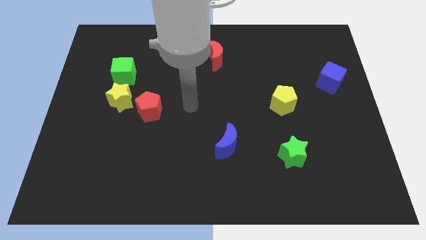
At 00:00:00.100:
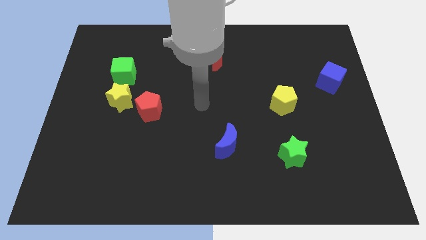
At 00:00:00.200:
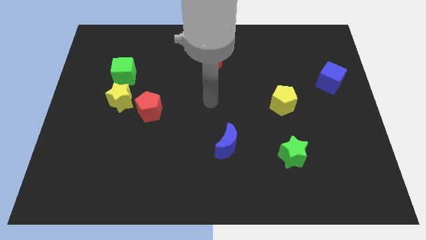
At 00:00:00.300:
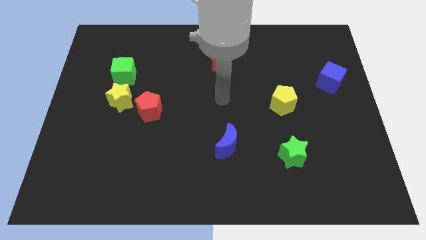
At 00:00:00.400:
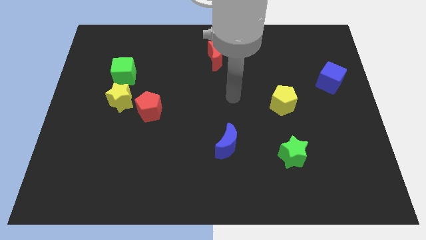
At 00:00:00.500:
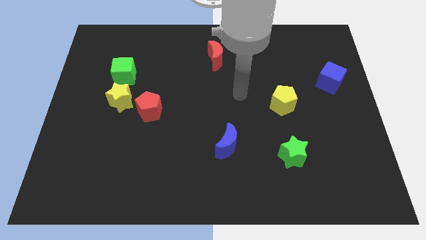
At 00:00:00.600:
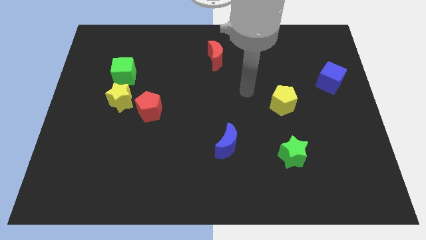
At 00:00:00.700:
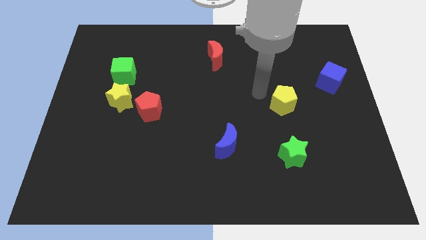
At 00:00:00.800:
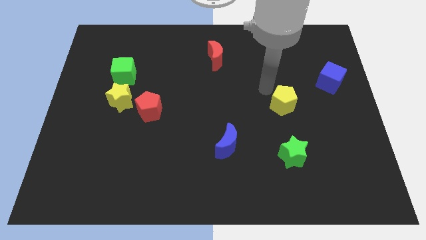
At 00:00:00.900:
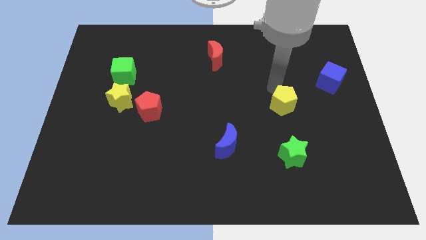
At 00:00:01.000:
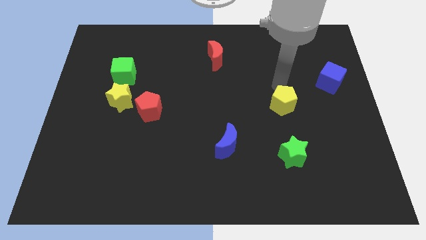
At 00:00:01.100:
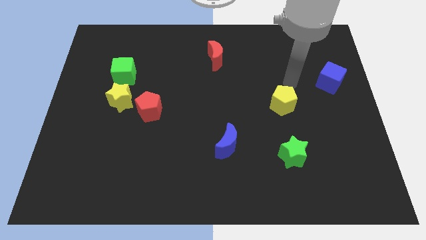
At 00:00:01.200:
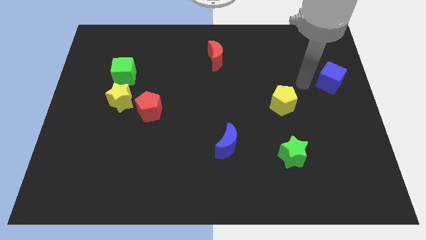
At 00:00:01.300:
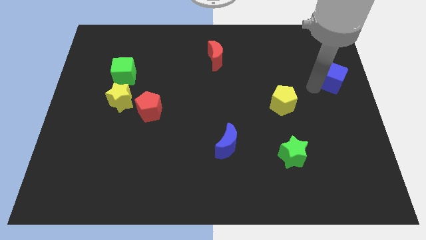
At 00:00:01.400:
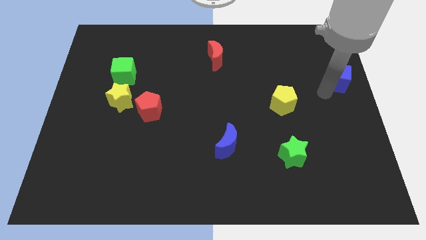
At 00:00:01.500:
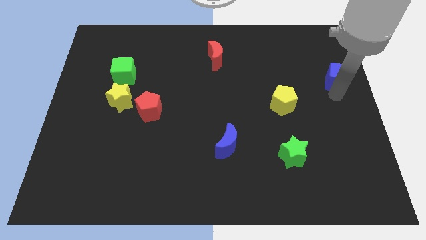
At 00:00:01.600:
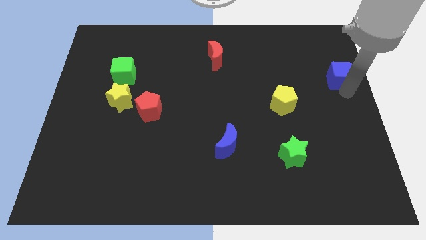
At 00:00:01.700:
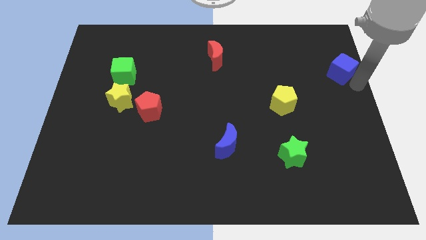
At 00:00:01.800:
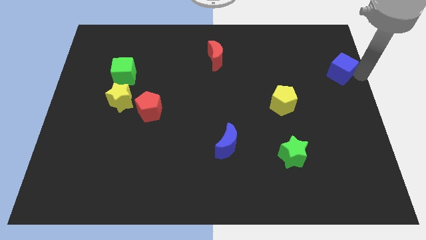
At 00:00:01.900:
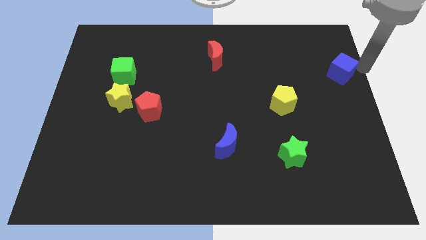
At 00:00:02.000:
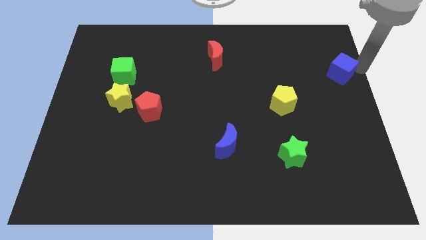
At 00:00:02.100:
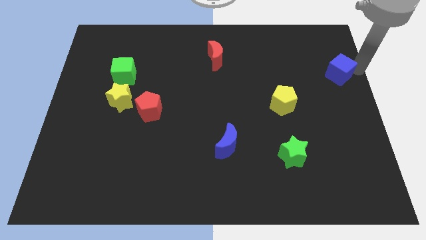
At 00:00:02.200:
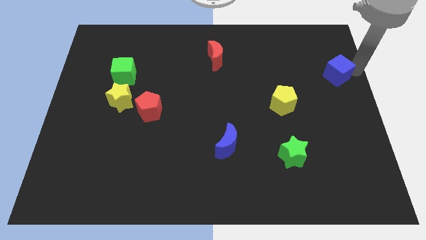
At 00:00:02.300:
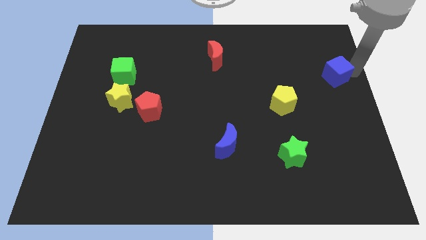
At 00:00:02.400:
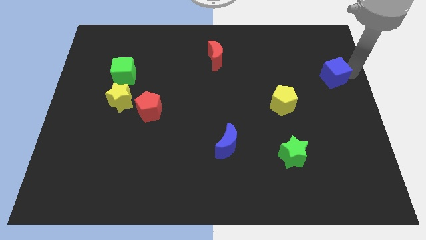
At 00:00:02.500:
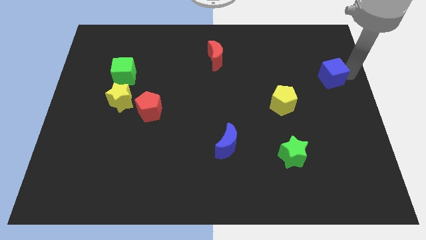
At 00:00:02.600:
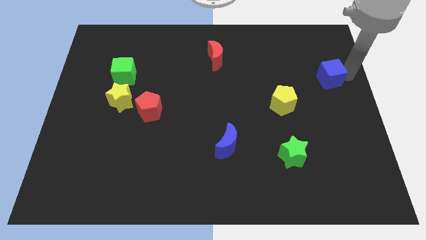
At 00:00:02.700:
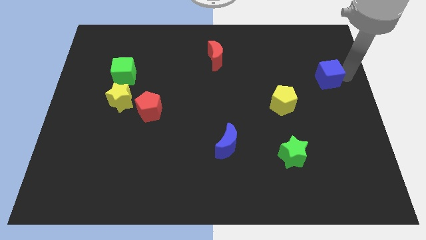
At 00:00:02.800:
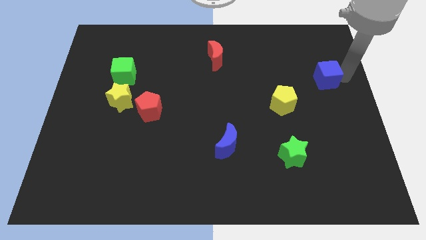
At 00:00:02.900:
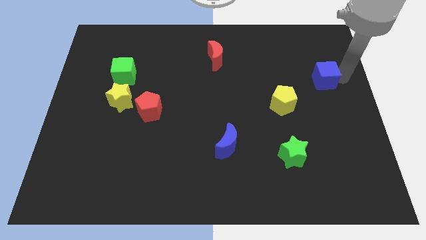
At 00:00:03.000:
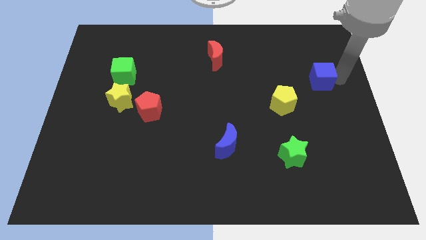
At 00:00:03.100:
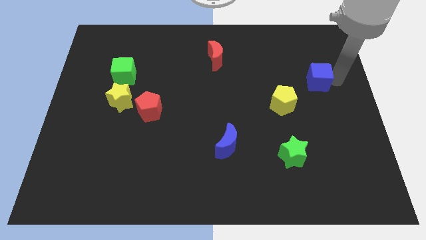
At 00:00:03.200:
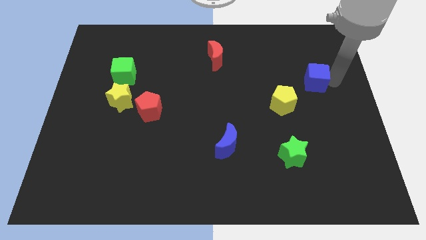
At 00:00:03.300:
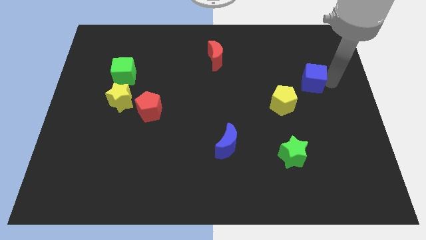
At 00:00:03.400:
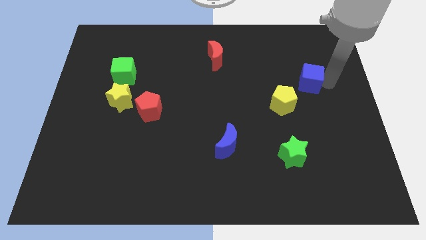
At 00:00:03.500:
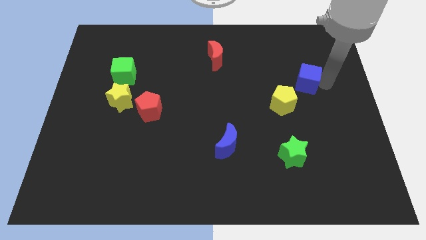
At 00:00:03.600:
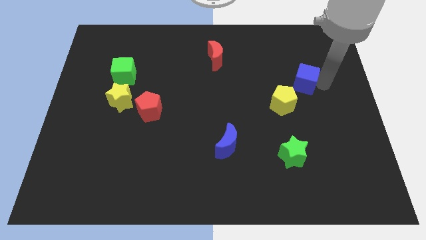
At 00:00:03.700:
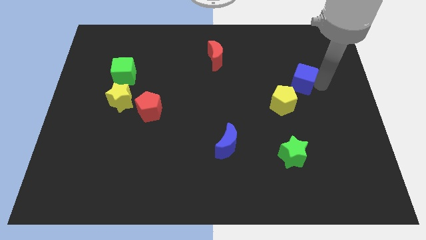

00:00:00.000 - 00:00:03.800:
move the blue cube slightly to the left

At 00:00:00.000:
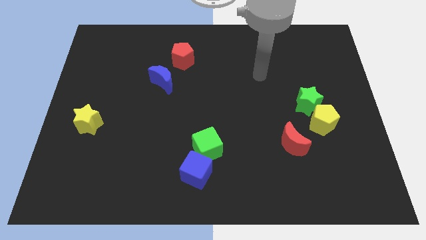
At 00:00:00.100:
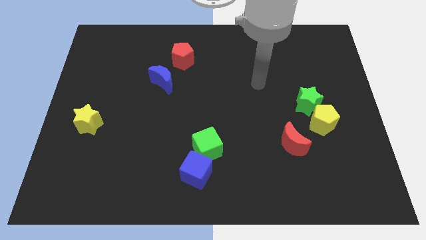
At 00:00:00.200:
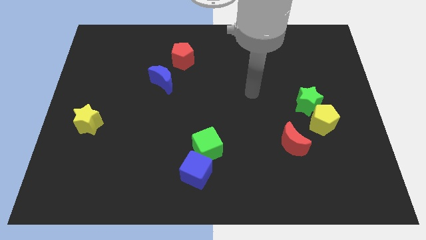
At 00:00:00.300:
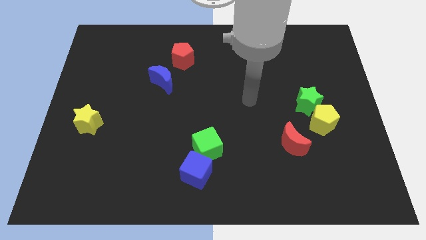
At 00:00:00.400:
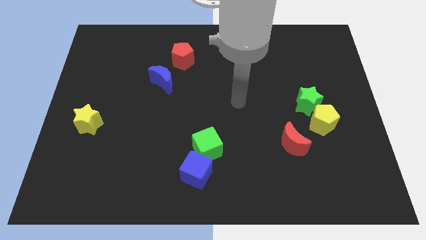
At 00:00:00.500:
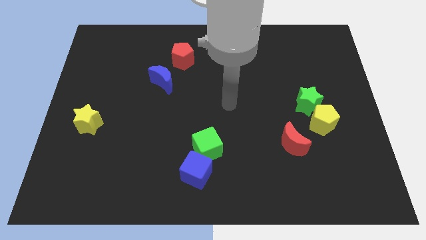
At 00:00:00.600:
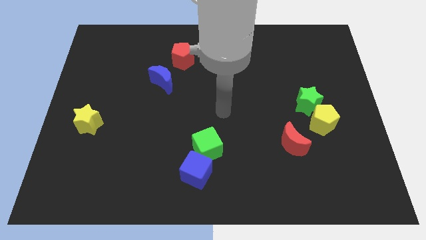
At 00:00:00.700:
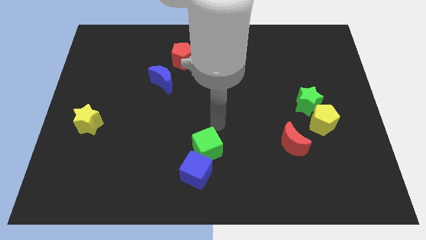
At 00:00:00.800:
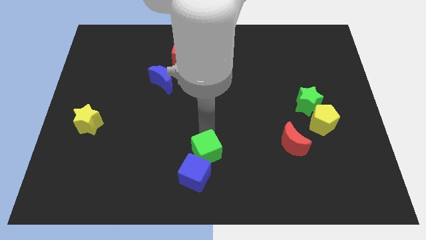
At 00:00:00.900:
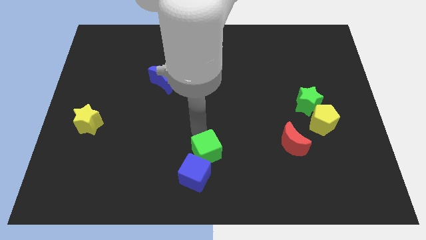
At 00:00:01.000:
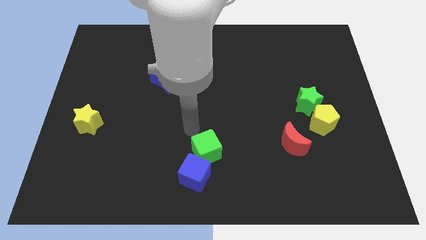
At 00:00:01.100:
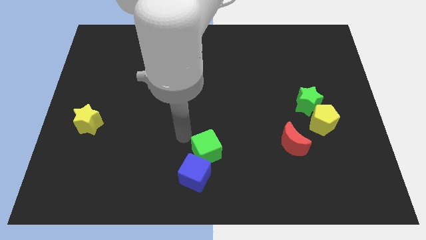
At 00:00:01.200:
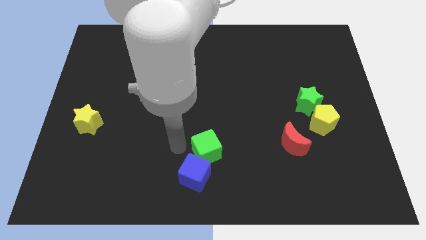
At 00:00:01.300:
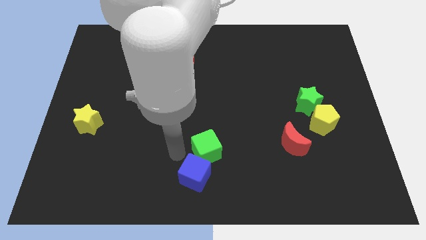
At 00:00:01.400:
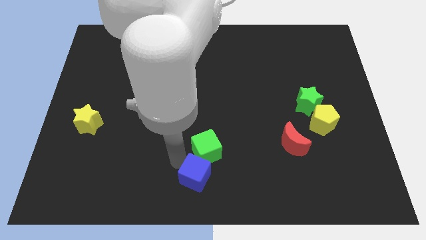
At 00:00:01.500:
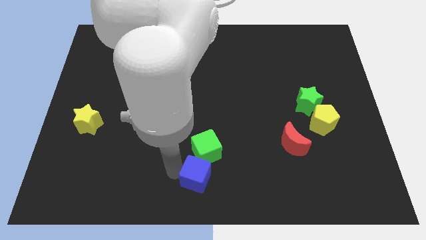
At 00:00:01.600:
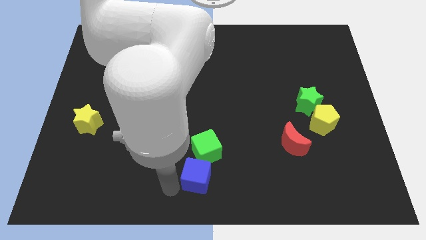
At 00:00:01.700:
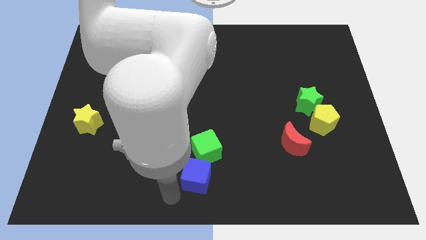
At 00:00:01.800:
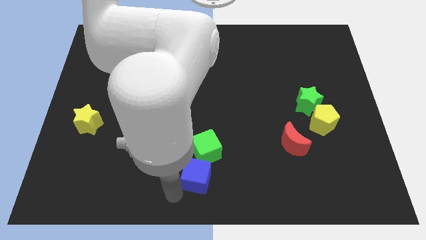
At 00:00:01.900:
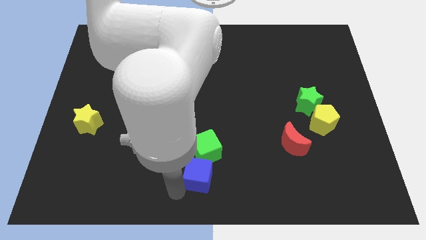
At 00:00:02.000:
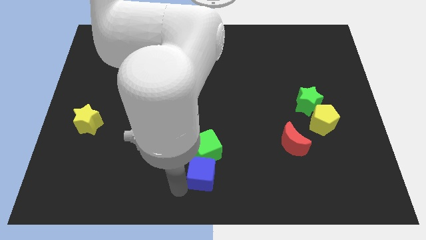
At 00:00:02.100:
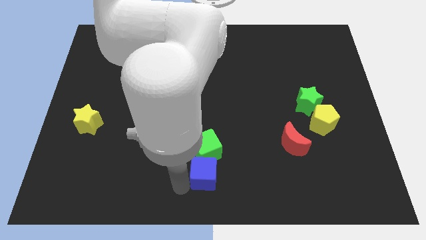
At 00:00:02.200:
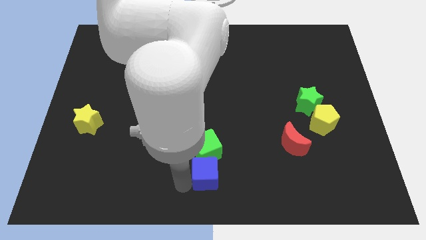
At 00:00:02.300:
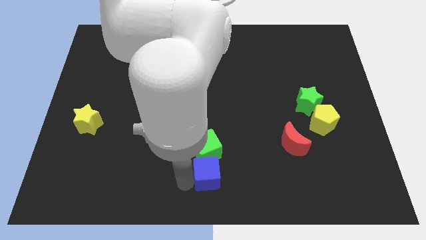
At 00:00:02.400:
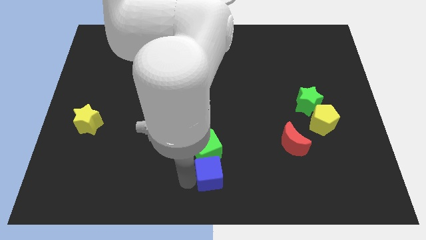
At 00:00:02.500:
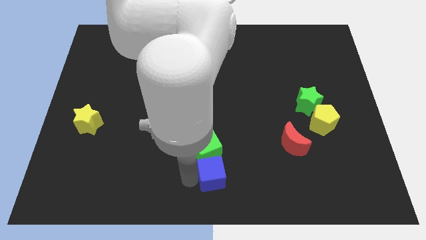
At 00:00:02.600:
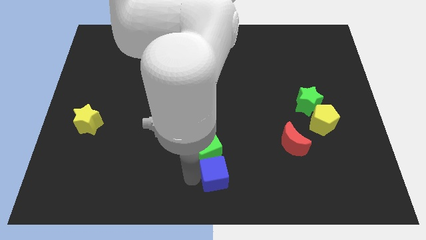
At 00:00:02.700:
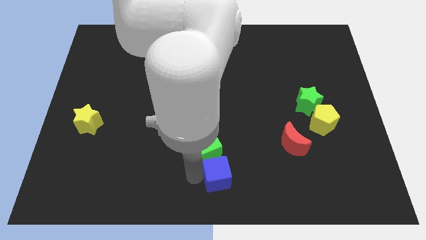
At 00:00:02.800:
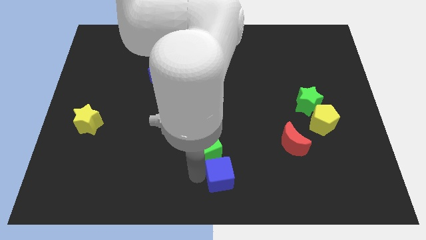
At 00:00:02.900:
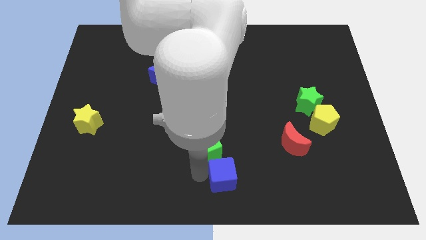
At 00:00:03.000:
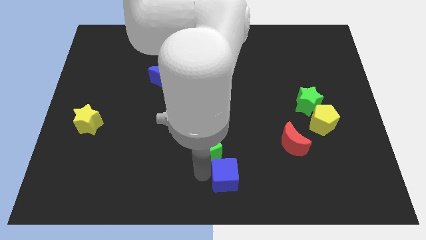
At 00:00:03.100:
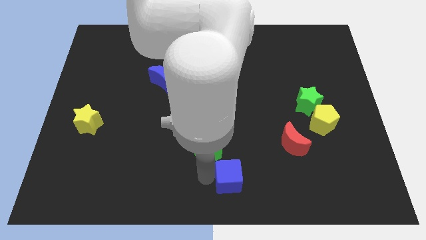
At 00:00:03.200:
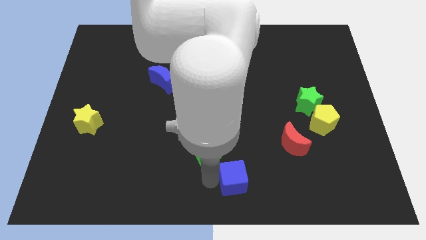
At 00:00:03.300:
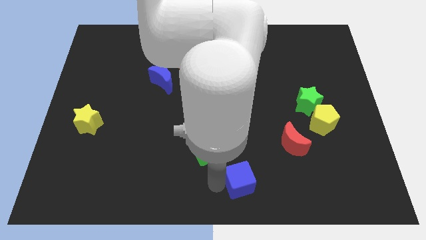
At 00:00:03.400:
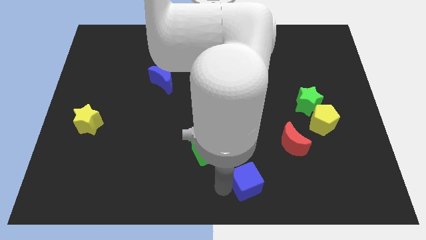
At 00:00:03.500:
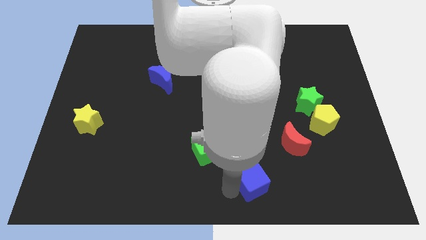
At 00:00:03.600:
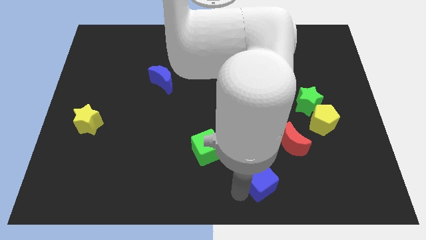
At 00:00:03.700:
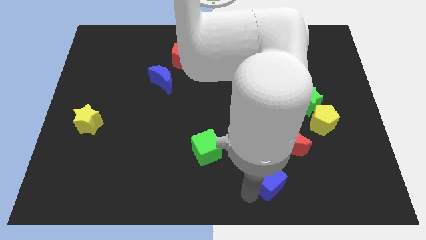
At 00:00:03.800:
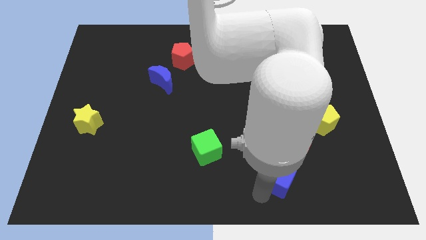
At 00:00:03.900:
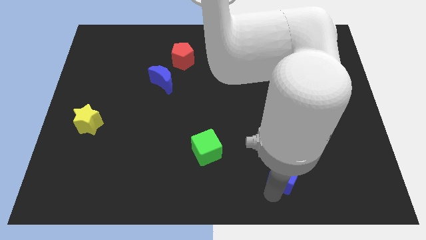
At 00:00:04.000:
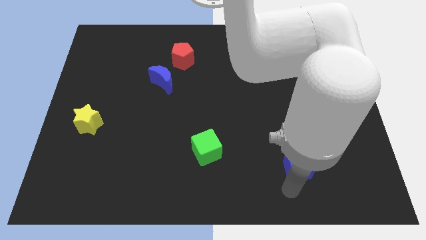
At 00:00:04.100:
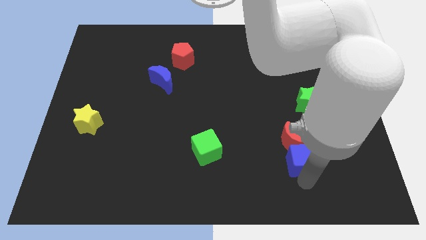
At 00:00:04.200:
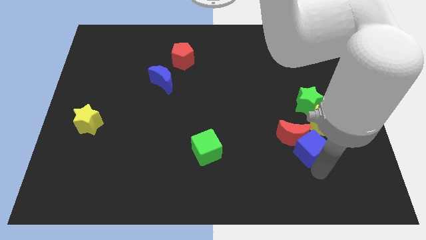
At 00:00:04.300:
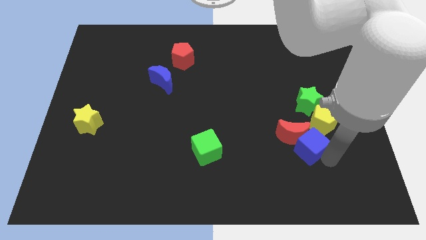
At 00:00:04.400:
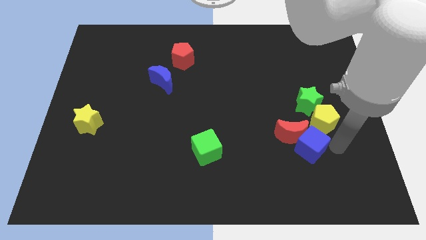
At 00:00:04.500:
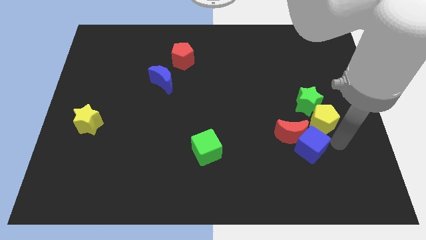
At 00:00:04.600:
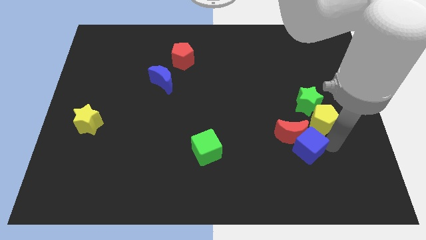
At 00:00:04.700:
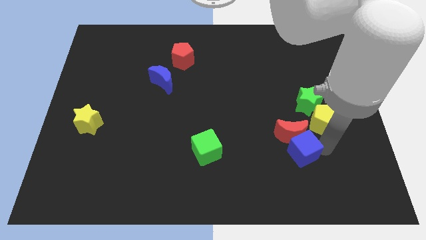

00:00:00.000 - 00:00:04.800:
move the blue cube slightly upwards and then right
